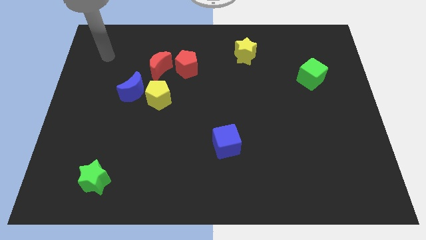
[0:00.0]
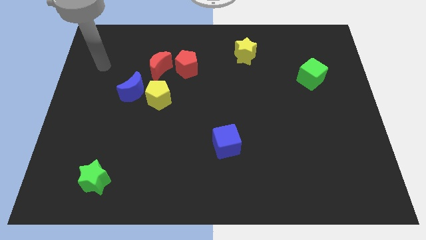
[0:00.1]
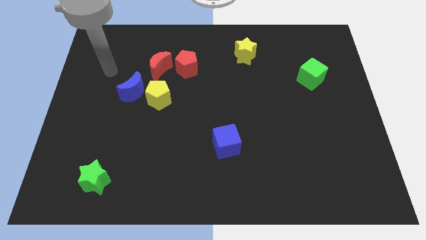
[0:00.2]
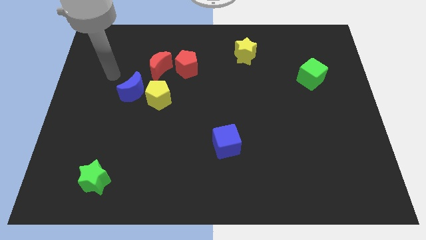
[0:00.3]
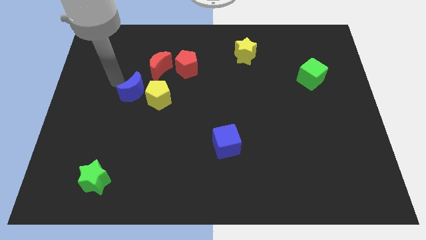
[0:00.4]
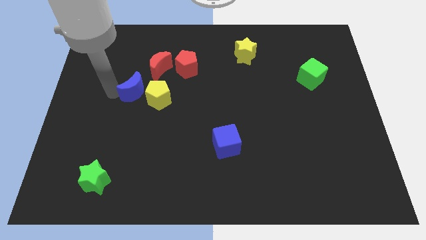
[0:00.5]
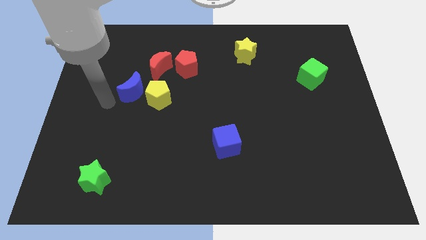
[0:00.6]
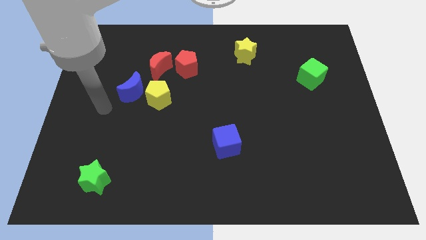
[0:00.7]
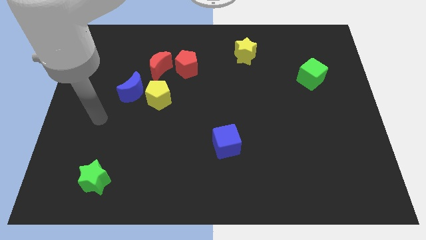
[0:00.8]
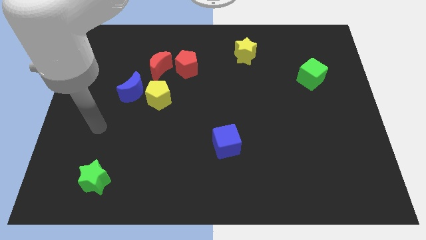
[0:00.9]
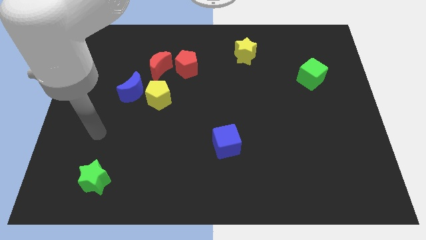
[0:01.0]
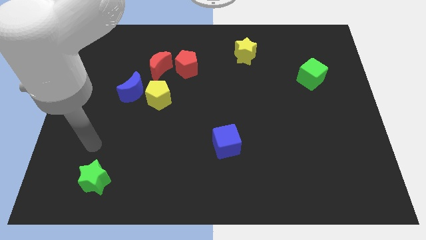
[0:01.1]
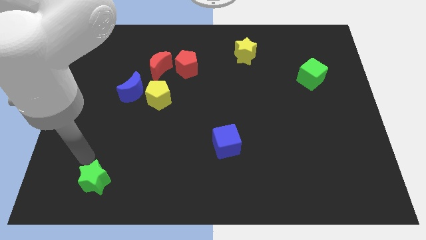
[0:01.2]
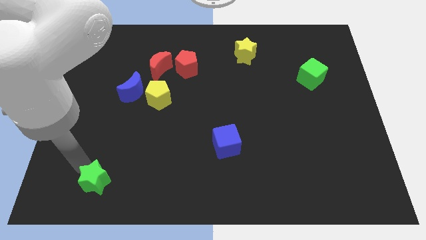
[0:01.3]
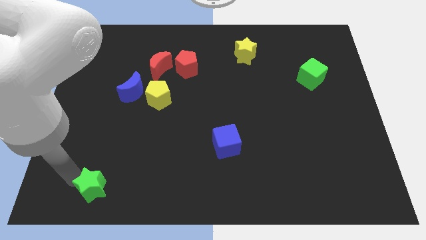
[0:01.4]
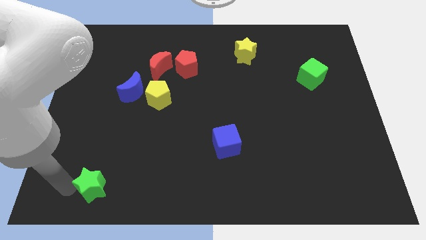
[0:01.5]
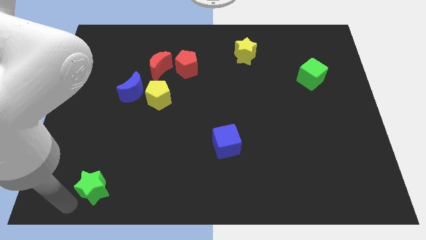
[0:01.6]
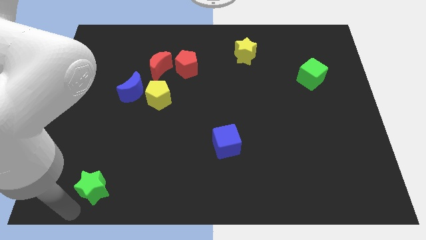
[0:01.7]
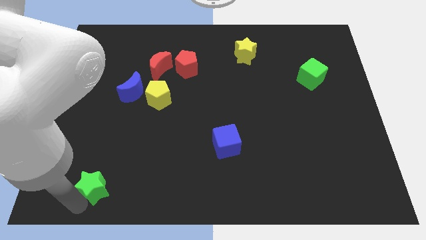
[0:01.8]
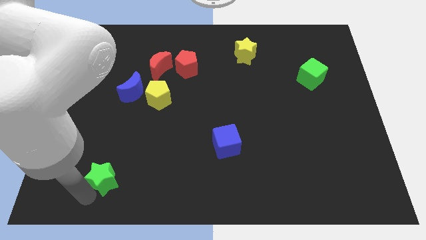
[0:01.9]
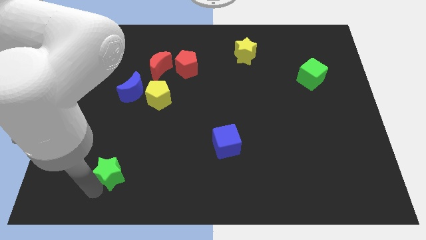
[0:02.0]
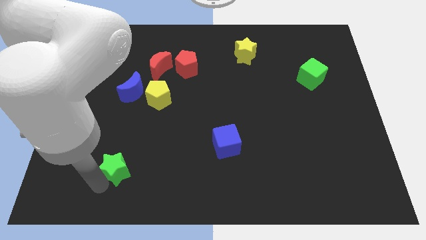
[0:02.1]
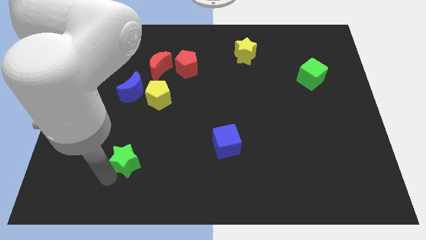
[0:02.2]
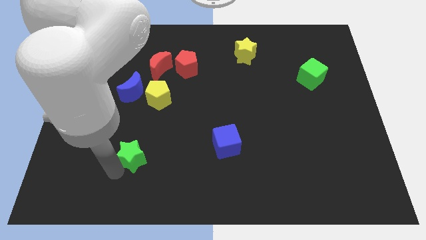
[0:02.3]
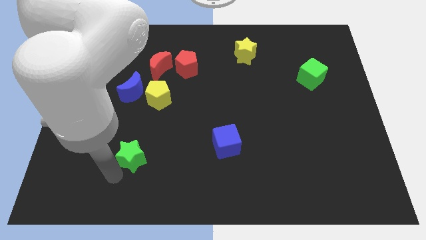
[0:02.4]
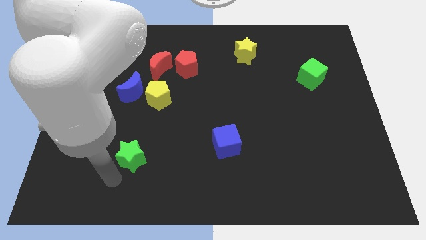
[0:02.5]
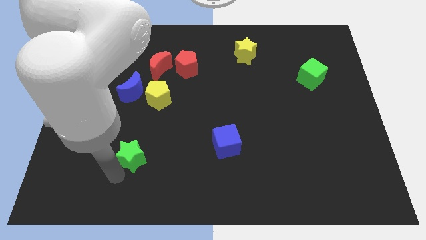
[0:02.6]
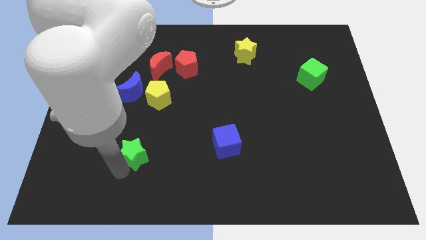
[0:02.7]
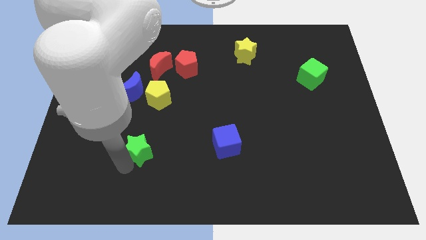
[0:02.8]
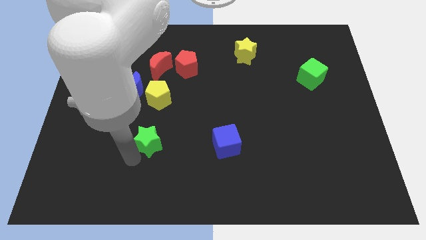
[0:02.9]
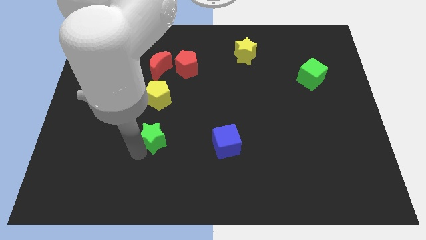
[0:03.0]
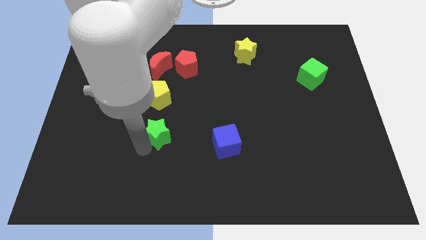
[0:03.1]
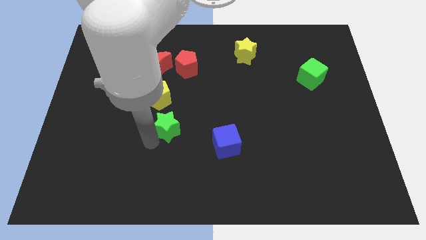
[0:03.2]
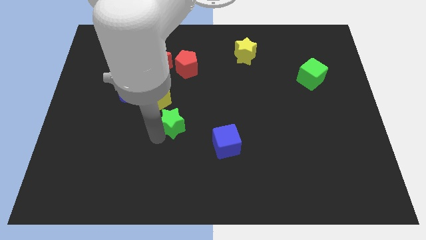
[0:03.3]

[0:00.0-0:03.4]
slide the green star diagonally upwards and to the right

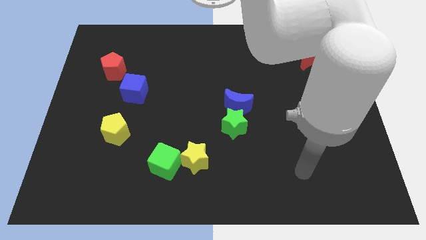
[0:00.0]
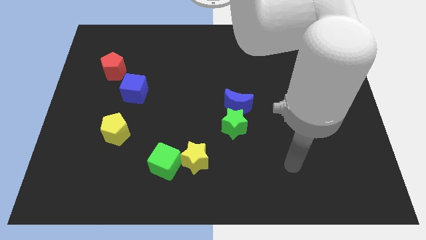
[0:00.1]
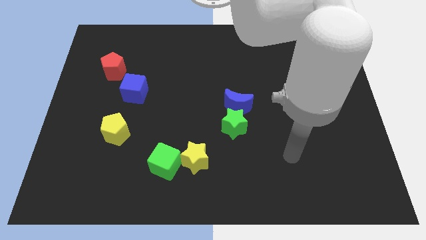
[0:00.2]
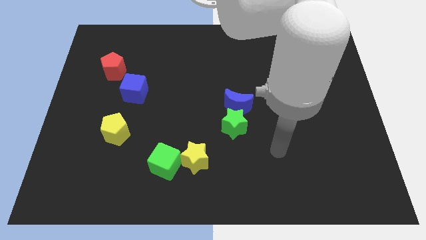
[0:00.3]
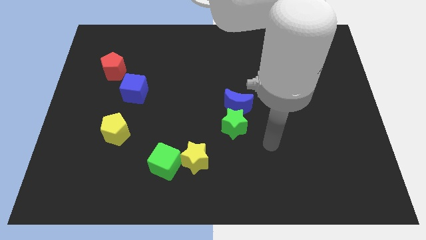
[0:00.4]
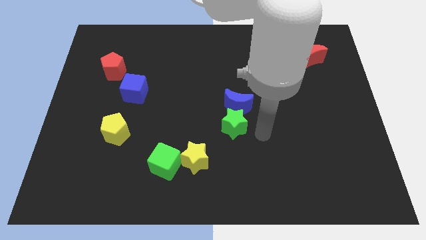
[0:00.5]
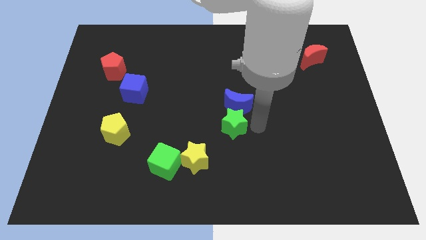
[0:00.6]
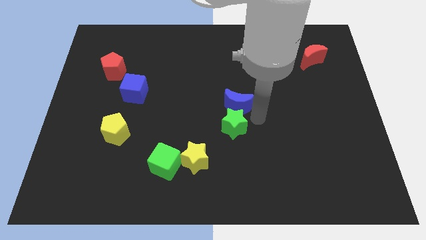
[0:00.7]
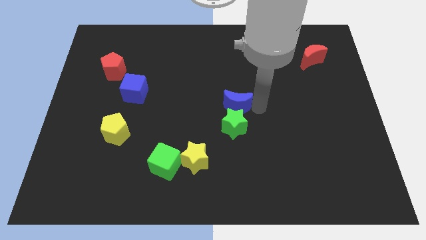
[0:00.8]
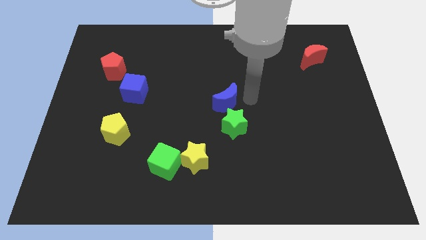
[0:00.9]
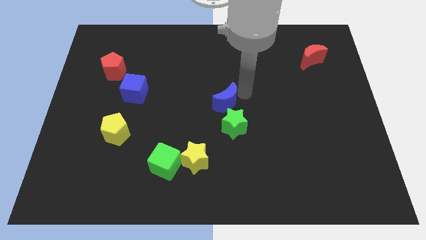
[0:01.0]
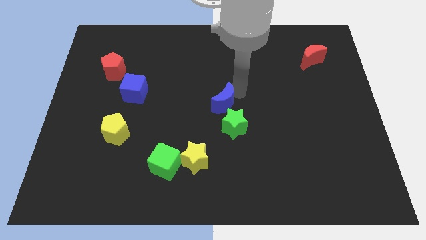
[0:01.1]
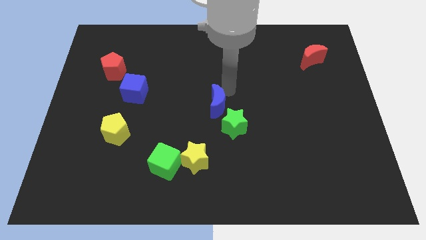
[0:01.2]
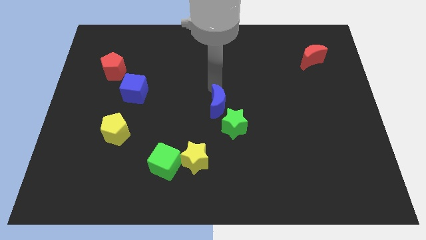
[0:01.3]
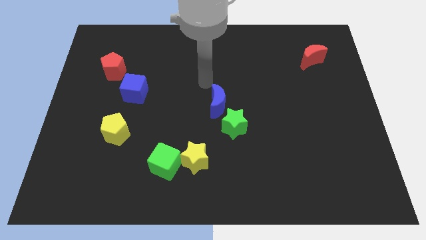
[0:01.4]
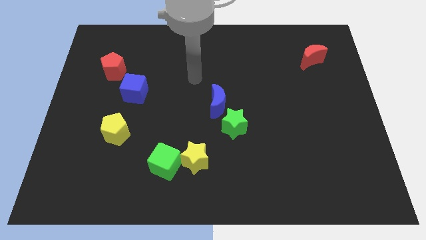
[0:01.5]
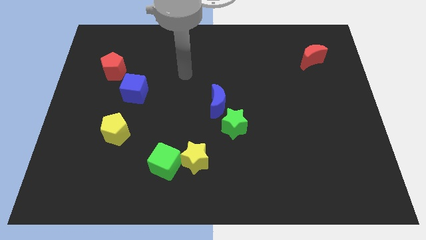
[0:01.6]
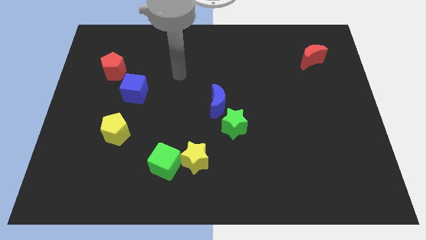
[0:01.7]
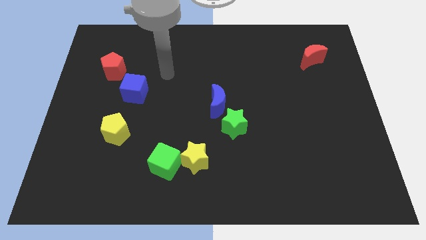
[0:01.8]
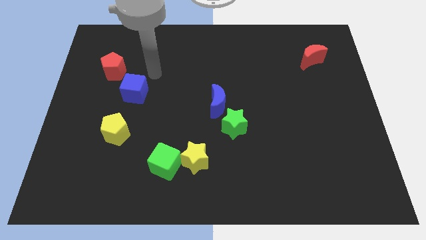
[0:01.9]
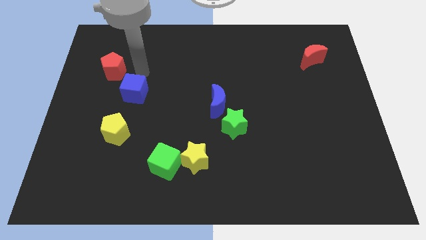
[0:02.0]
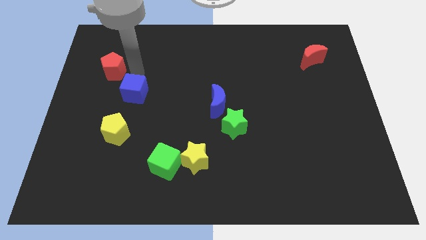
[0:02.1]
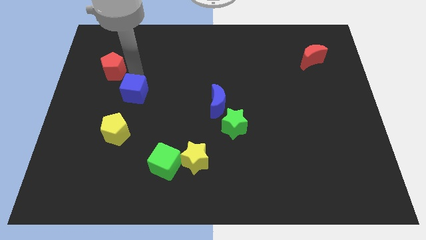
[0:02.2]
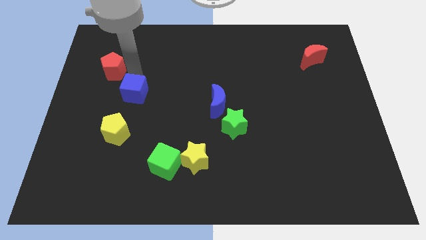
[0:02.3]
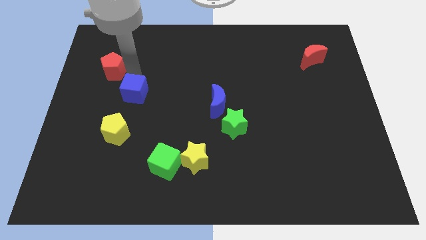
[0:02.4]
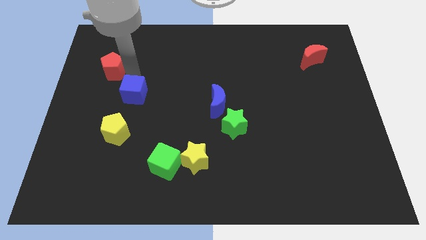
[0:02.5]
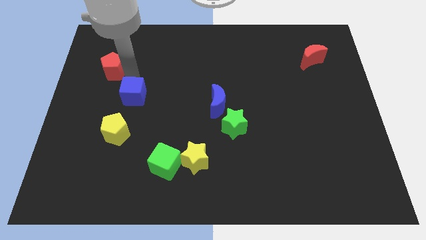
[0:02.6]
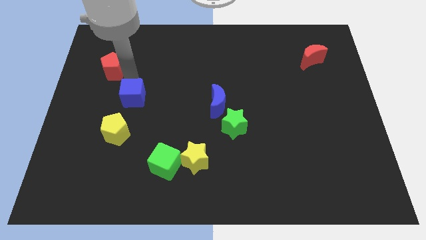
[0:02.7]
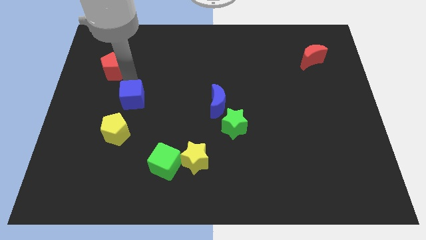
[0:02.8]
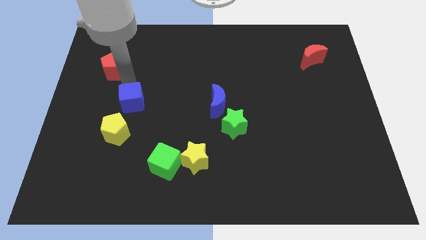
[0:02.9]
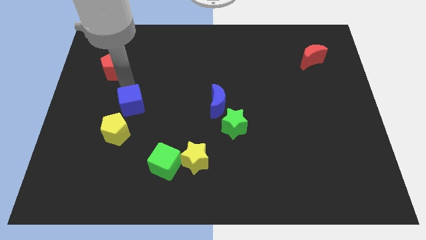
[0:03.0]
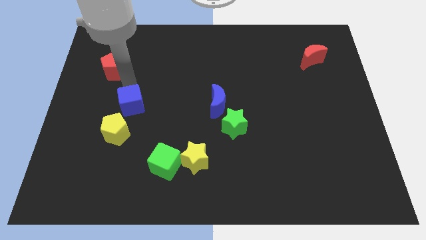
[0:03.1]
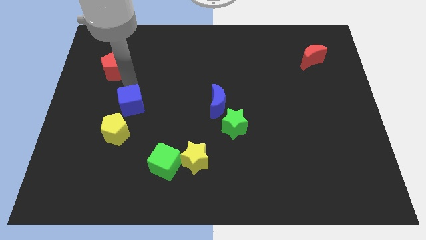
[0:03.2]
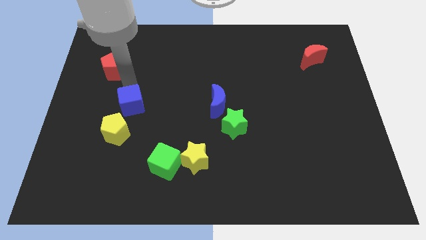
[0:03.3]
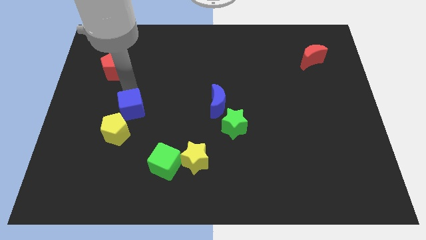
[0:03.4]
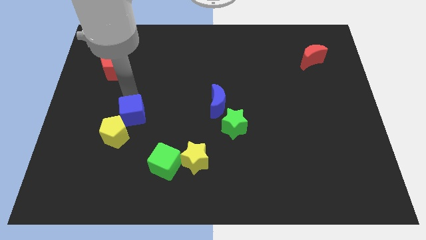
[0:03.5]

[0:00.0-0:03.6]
move the blue cube down a little

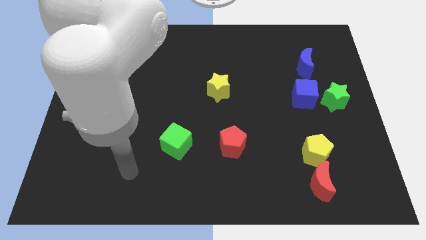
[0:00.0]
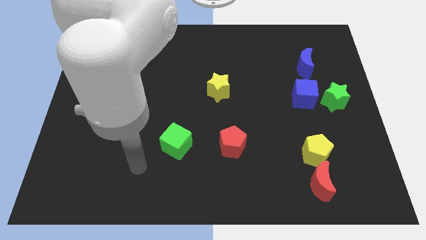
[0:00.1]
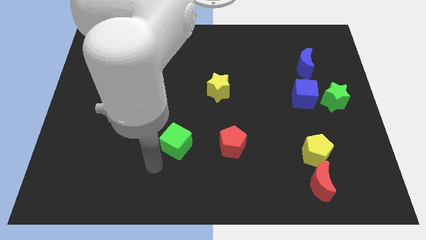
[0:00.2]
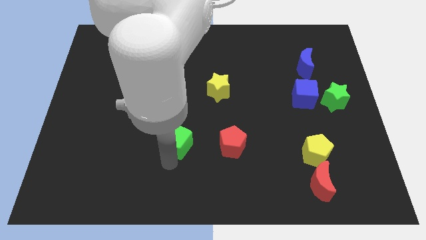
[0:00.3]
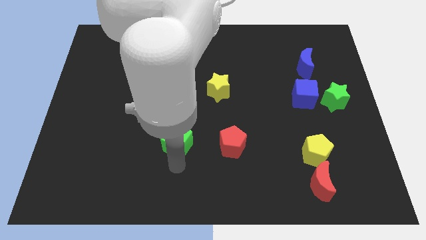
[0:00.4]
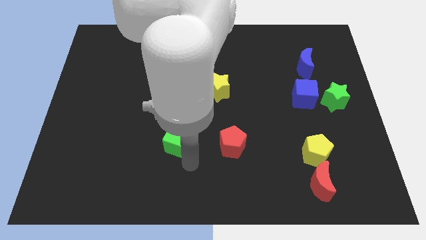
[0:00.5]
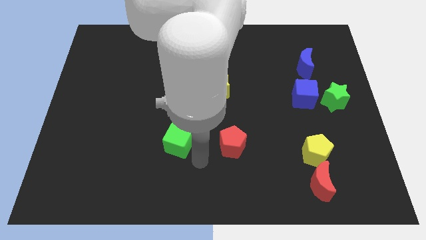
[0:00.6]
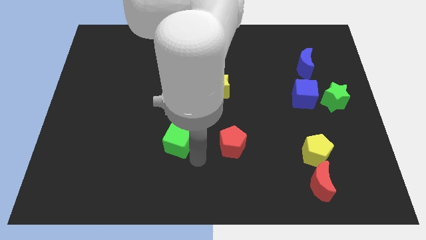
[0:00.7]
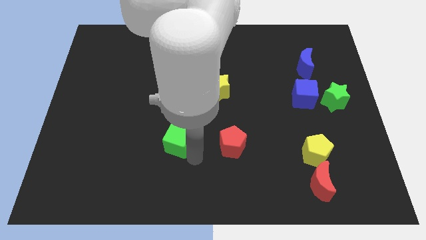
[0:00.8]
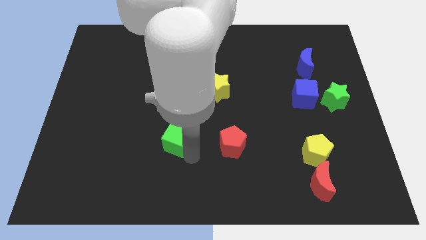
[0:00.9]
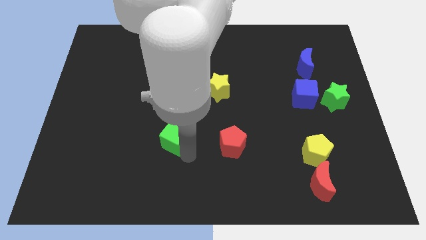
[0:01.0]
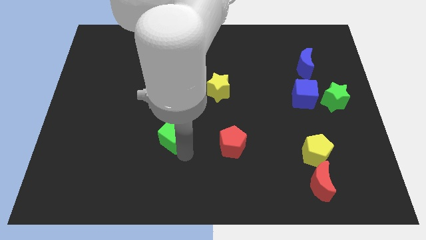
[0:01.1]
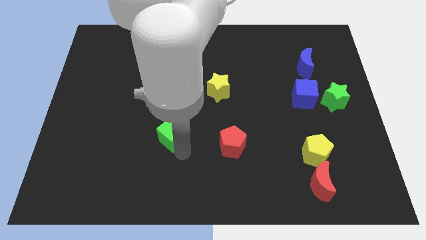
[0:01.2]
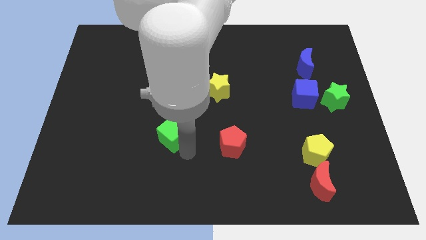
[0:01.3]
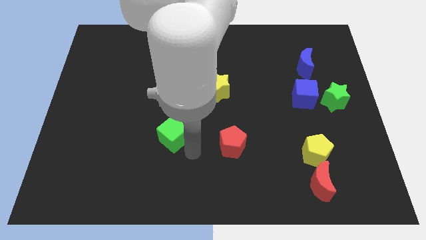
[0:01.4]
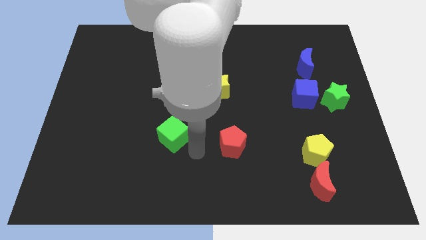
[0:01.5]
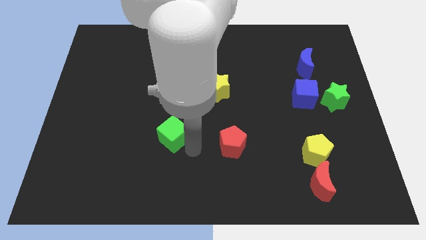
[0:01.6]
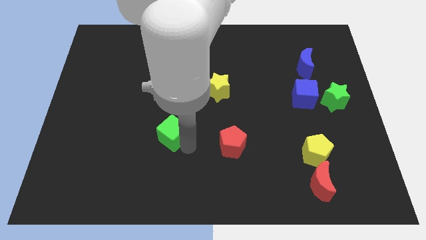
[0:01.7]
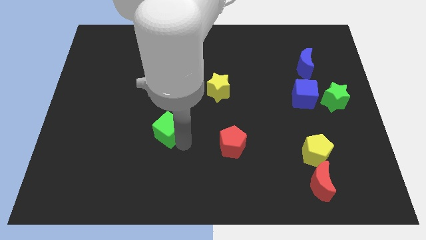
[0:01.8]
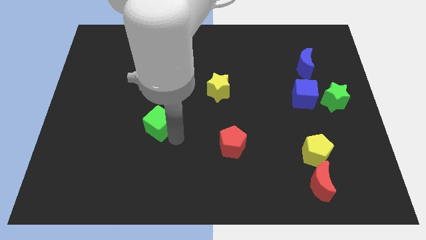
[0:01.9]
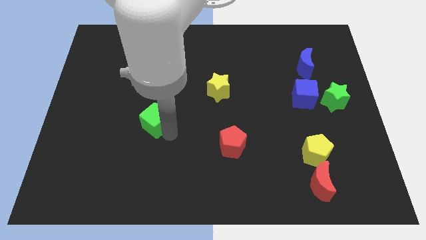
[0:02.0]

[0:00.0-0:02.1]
slide the green cube diagonally up and to the left a little
